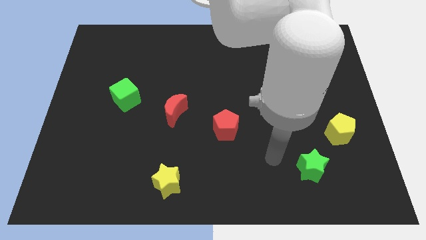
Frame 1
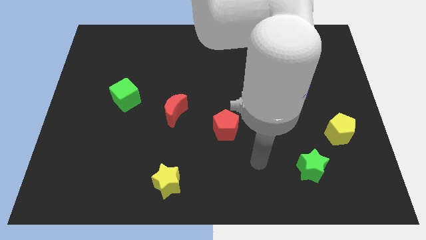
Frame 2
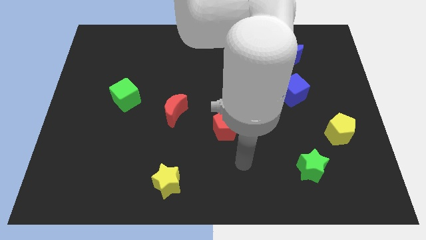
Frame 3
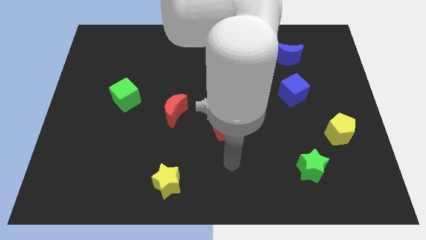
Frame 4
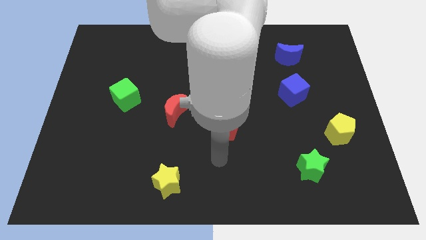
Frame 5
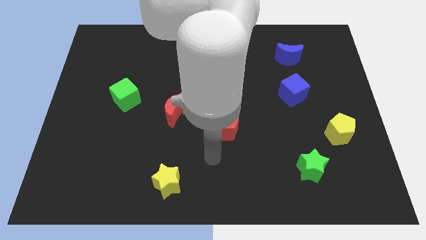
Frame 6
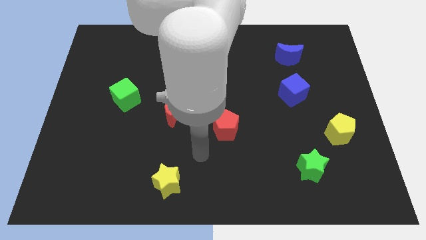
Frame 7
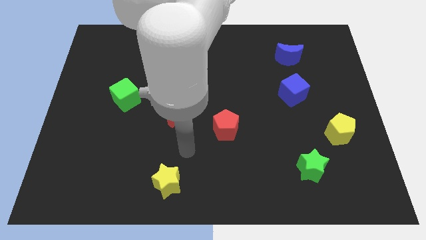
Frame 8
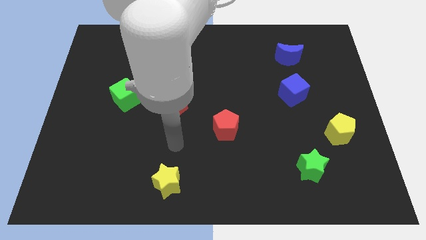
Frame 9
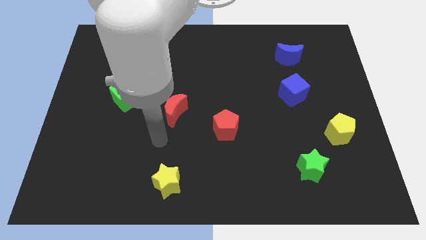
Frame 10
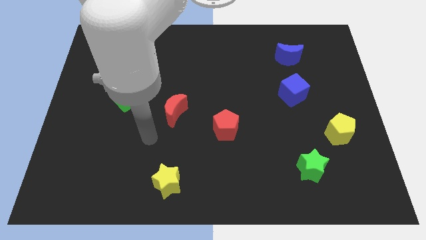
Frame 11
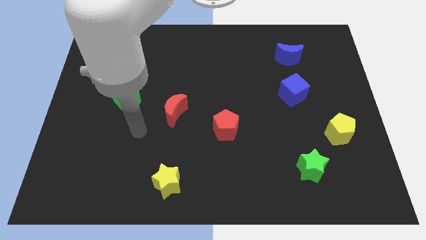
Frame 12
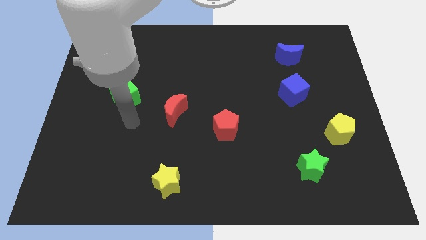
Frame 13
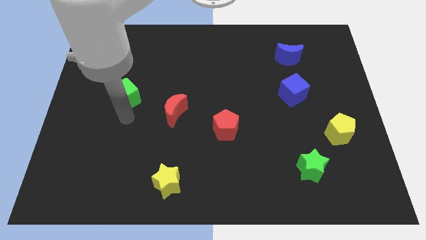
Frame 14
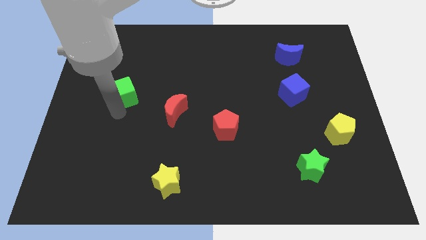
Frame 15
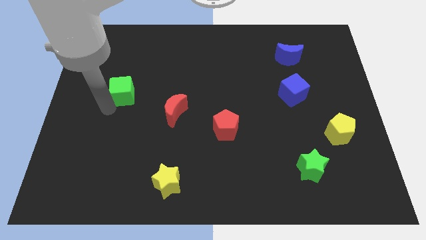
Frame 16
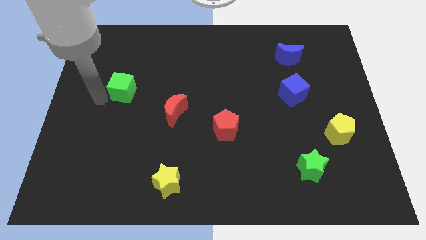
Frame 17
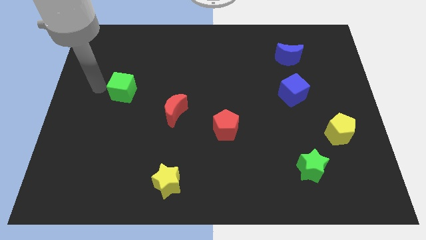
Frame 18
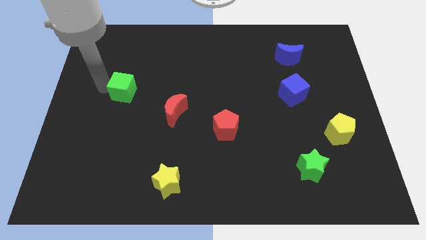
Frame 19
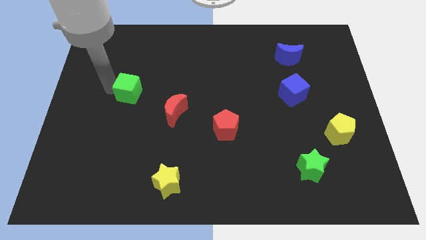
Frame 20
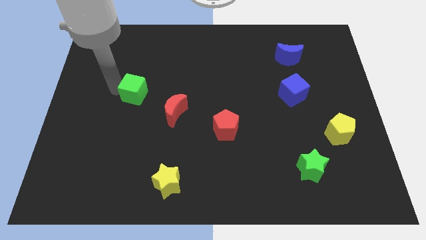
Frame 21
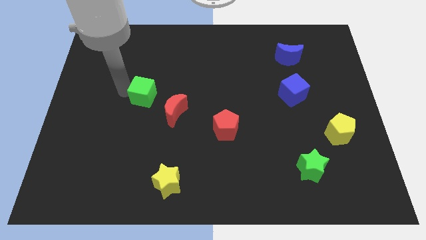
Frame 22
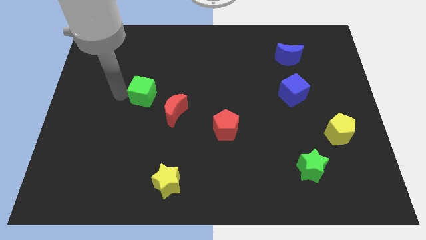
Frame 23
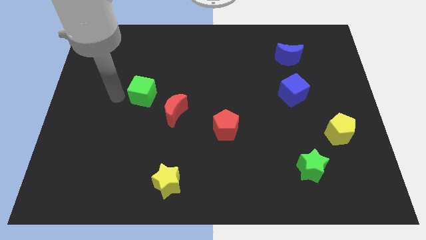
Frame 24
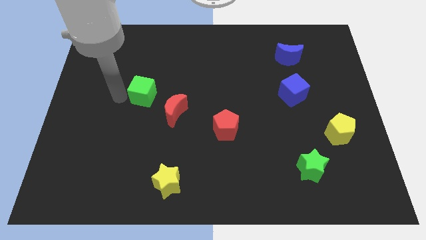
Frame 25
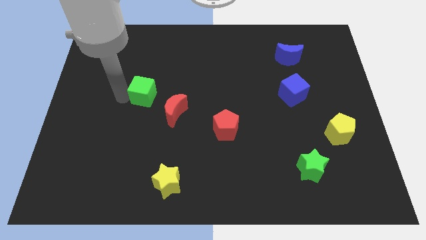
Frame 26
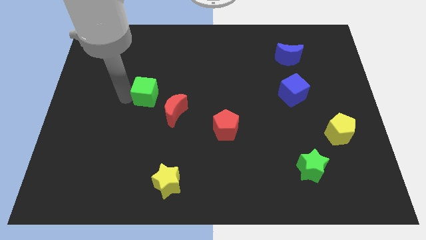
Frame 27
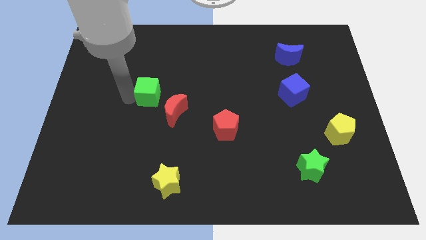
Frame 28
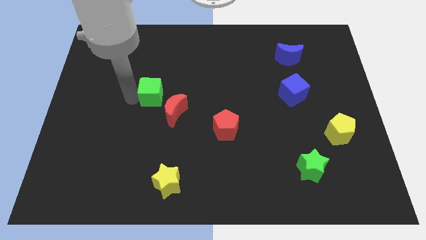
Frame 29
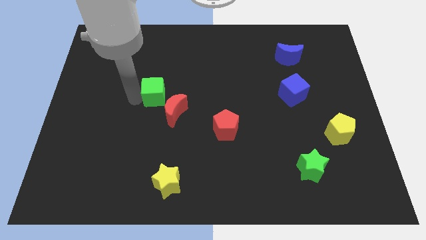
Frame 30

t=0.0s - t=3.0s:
move the green cube a little bit right

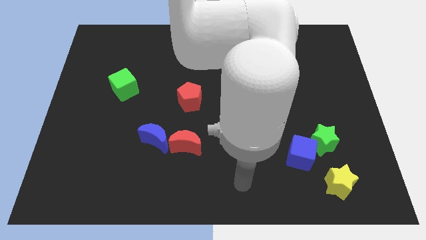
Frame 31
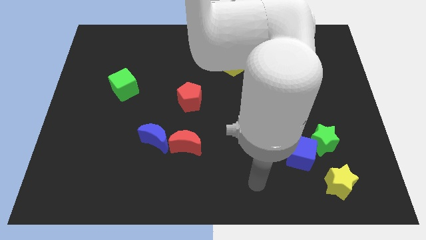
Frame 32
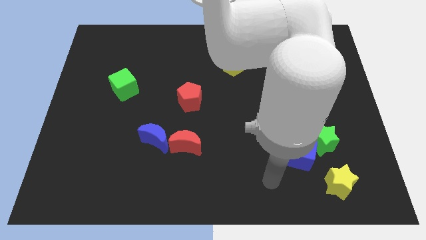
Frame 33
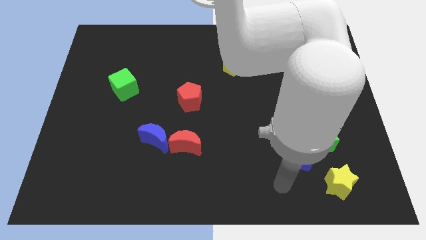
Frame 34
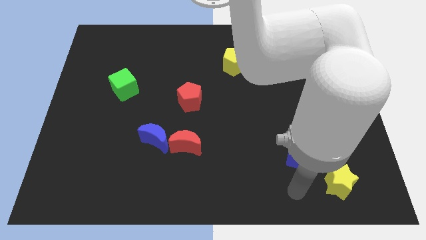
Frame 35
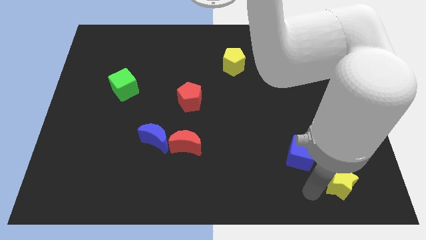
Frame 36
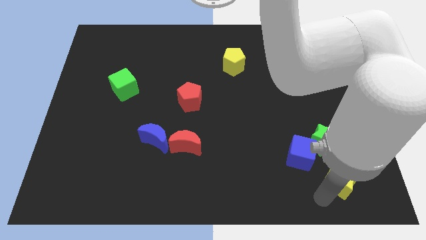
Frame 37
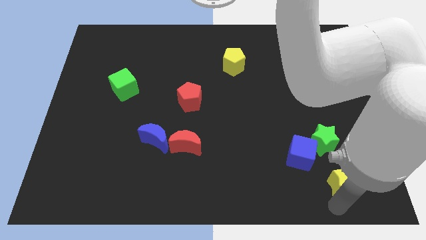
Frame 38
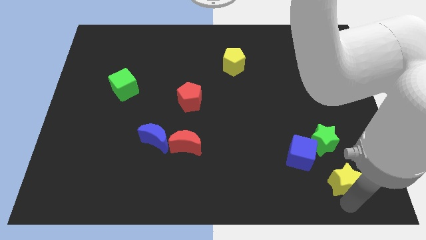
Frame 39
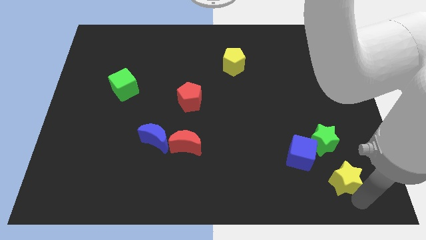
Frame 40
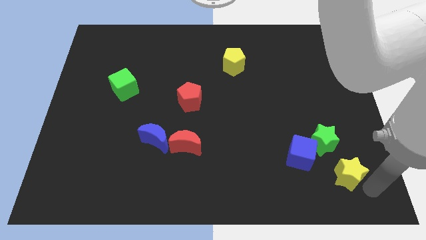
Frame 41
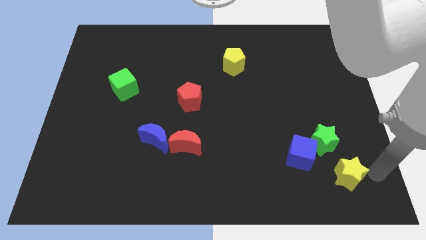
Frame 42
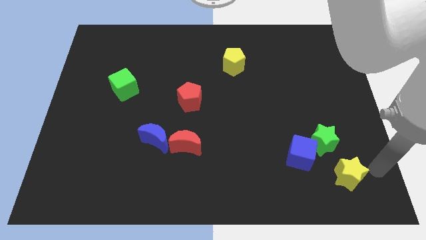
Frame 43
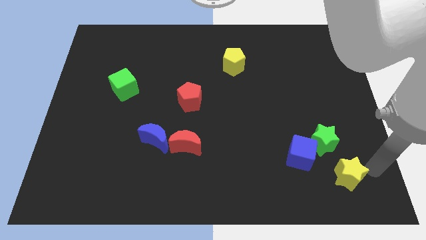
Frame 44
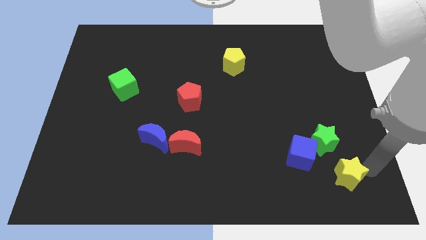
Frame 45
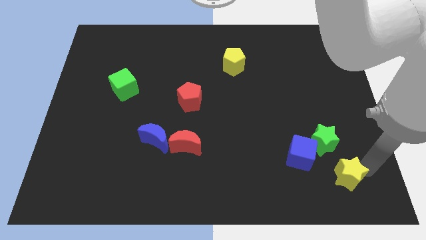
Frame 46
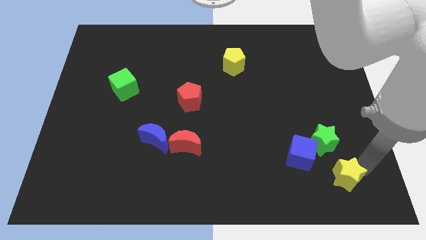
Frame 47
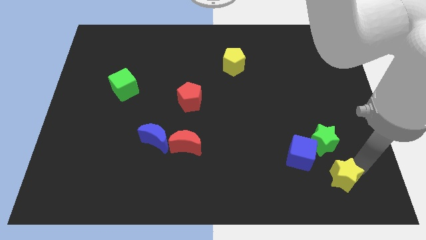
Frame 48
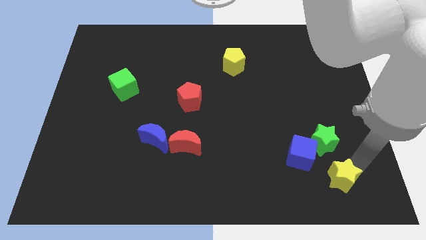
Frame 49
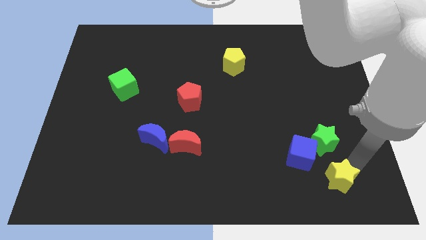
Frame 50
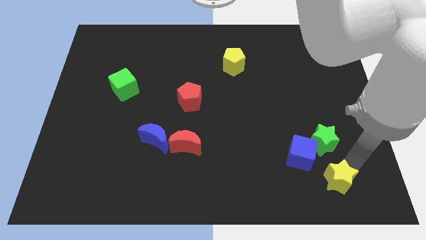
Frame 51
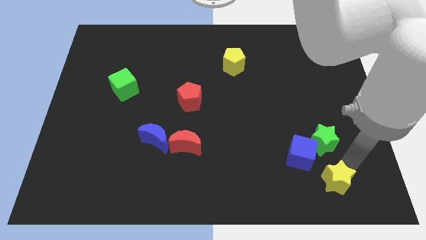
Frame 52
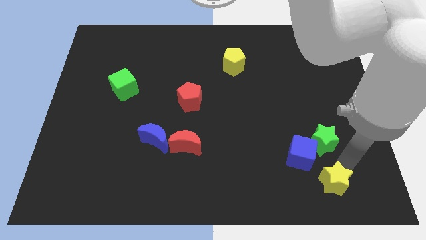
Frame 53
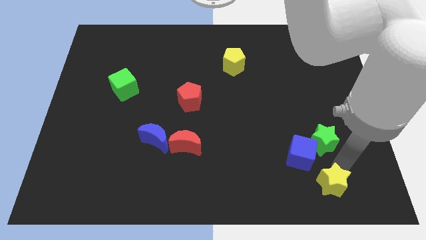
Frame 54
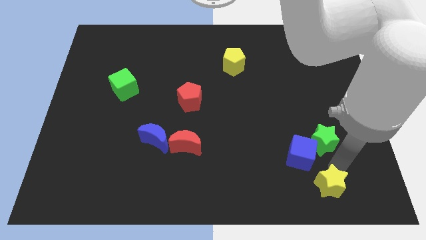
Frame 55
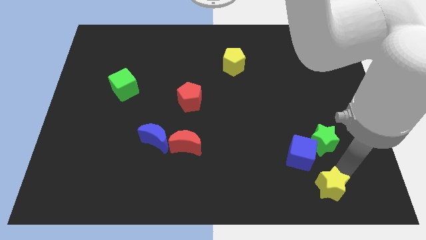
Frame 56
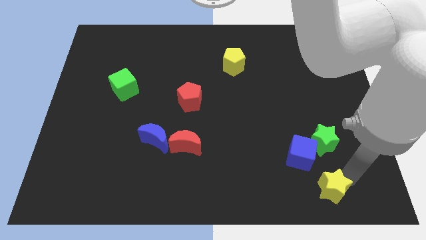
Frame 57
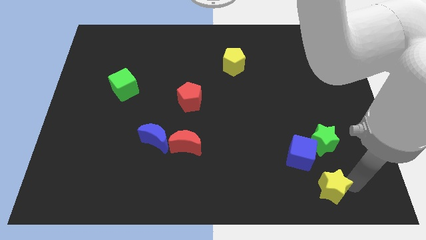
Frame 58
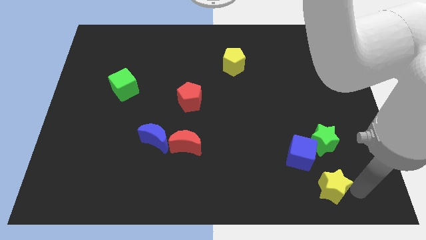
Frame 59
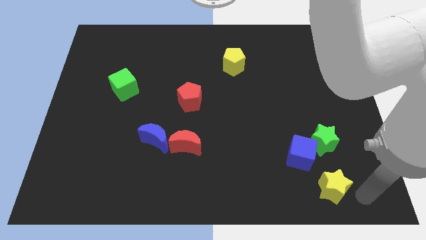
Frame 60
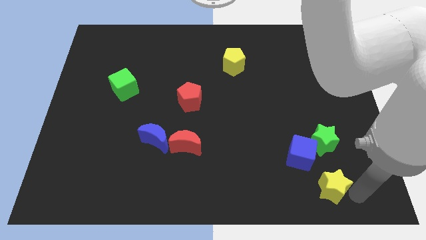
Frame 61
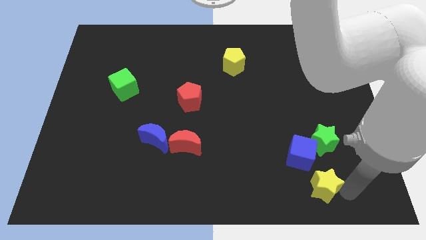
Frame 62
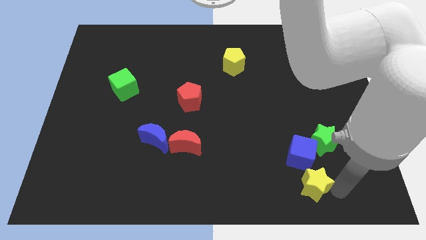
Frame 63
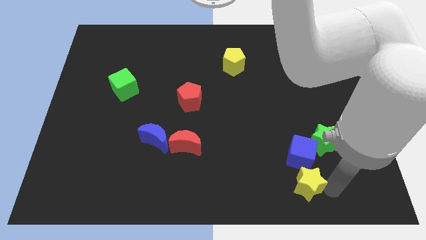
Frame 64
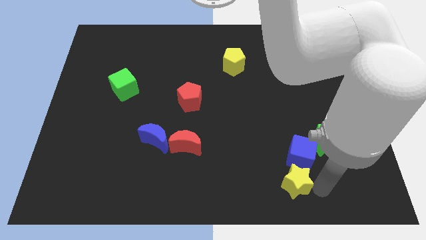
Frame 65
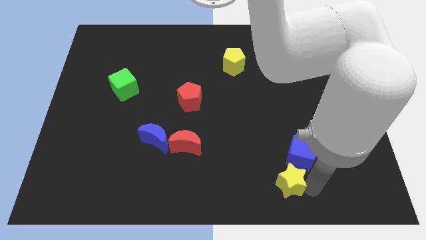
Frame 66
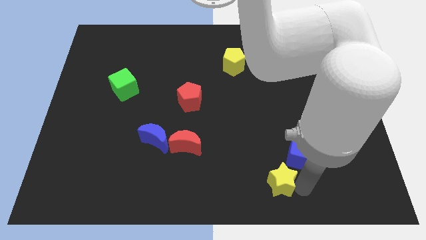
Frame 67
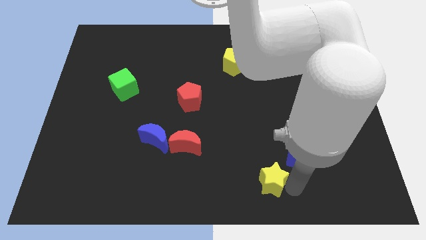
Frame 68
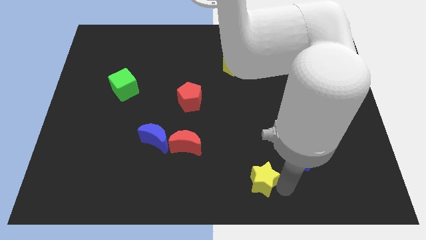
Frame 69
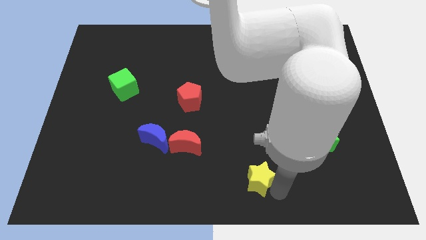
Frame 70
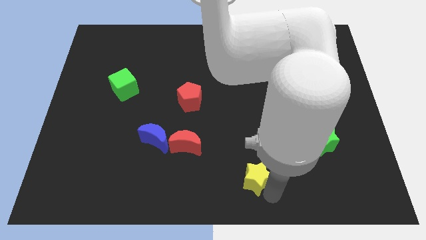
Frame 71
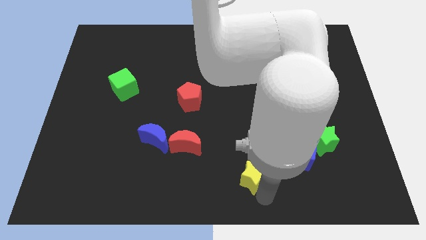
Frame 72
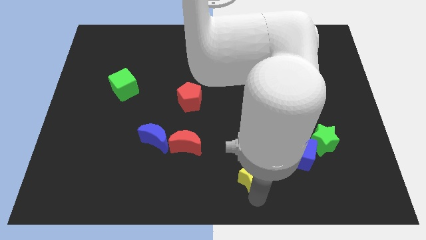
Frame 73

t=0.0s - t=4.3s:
slide the yellow star a bit up and left

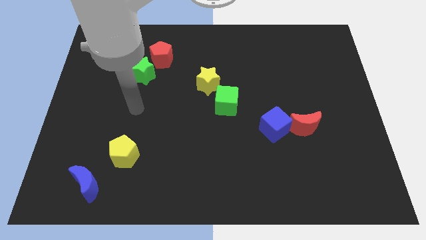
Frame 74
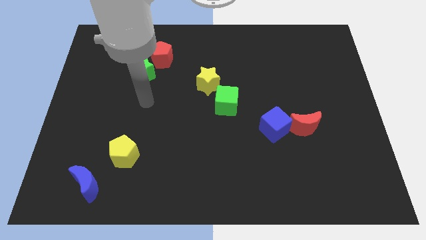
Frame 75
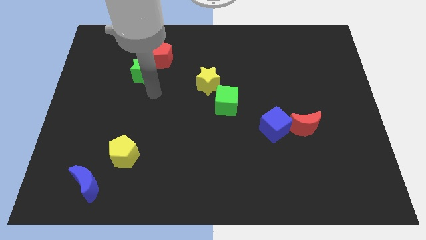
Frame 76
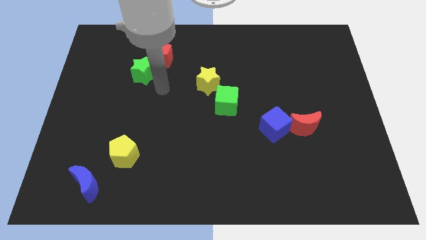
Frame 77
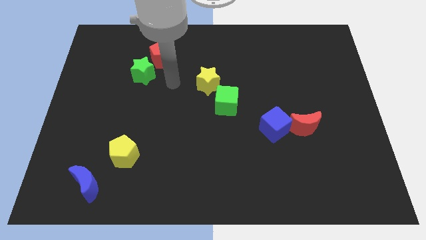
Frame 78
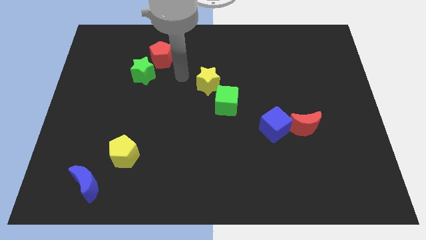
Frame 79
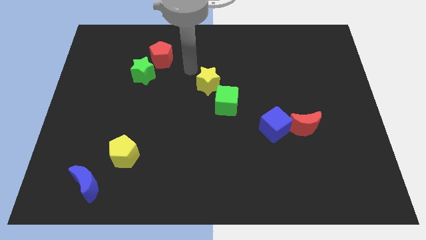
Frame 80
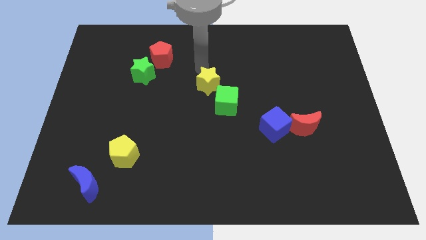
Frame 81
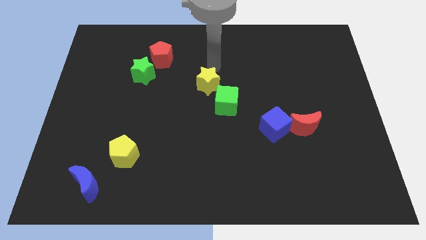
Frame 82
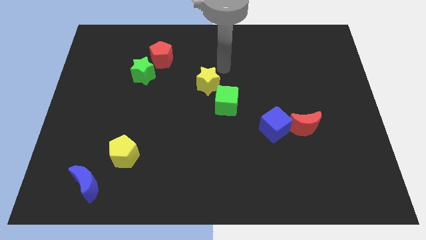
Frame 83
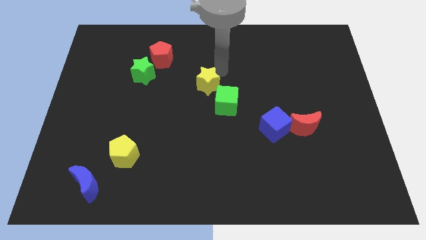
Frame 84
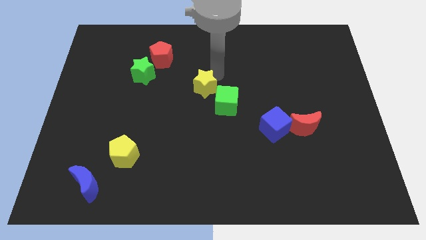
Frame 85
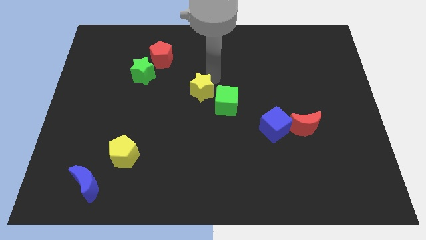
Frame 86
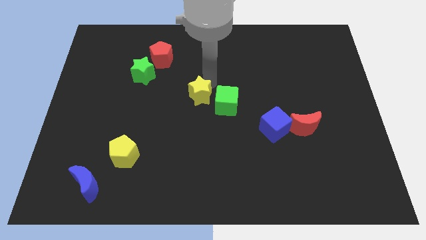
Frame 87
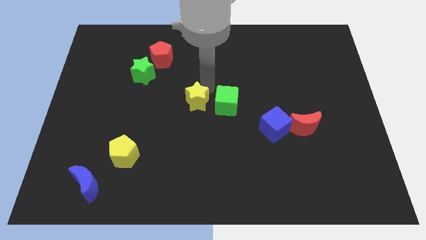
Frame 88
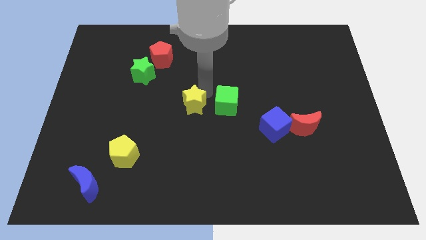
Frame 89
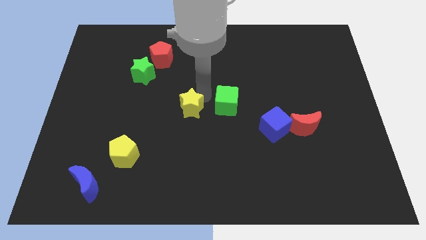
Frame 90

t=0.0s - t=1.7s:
slightly slide the yellow star down and to the left
